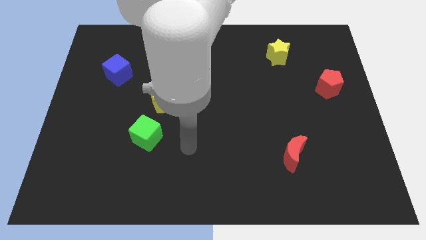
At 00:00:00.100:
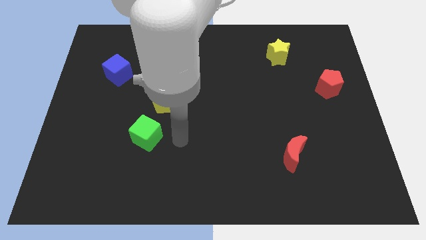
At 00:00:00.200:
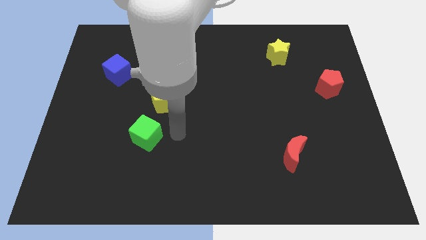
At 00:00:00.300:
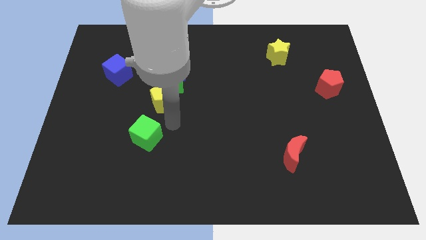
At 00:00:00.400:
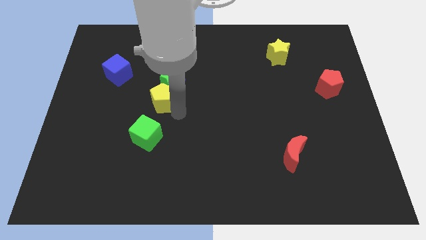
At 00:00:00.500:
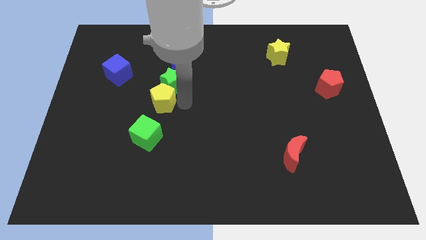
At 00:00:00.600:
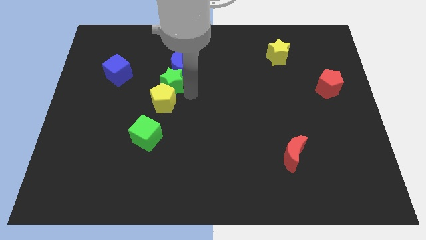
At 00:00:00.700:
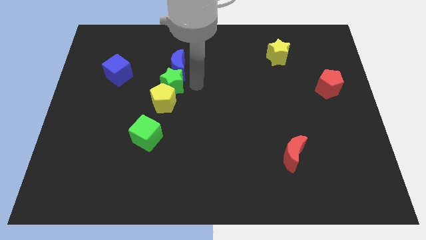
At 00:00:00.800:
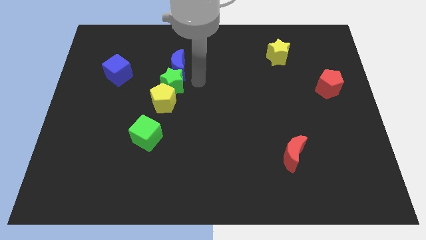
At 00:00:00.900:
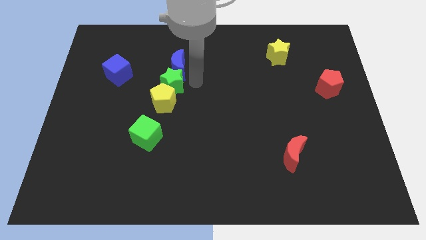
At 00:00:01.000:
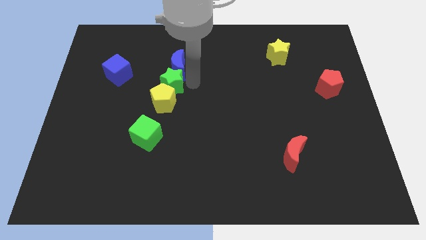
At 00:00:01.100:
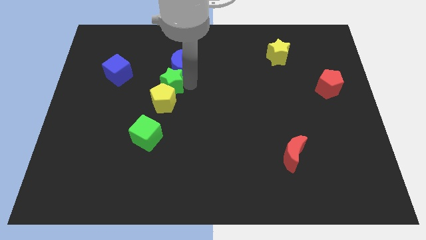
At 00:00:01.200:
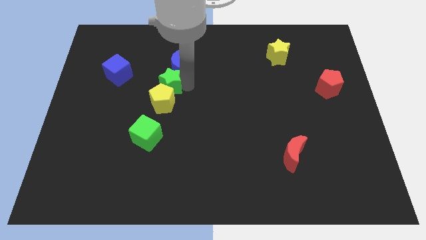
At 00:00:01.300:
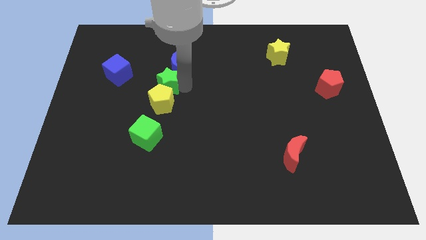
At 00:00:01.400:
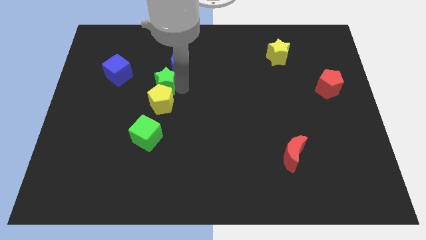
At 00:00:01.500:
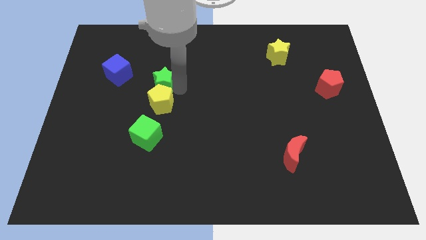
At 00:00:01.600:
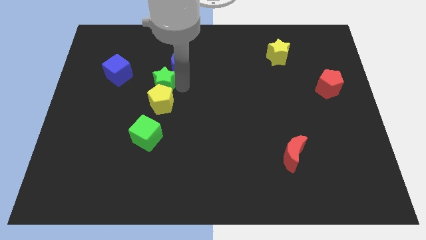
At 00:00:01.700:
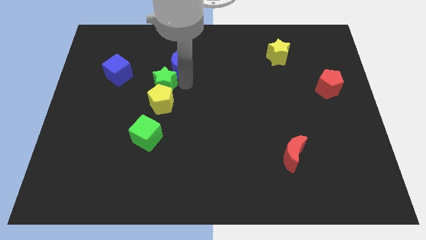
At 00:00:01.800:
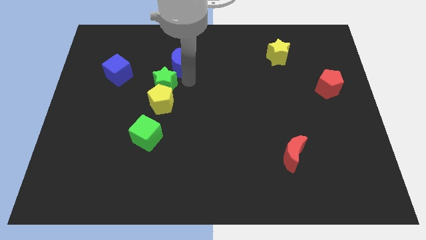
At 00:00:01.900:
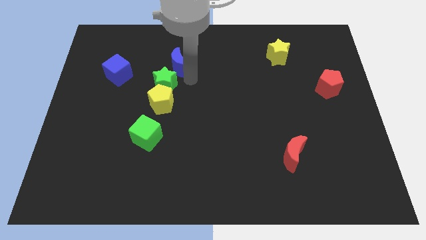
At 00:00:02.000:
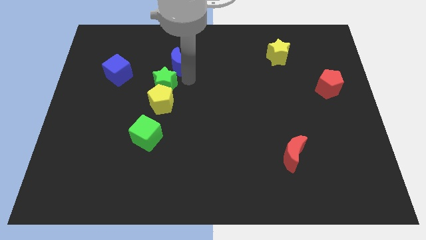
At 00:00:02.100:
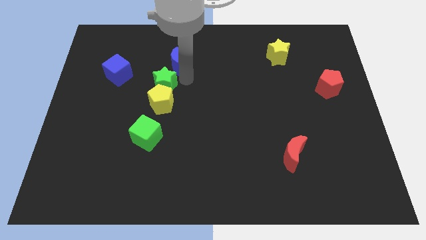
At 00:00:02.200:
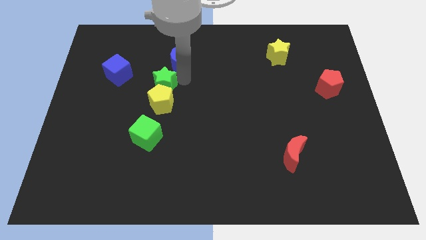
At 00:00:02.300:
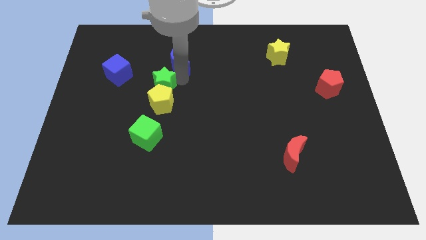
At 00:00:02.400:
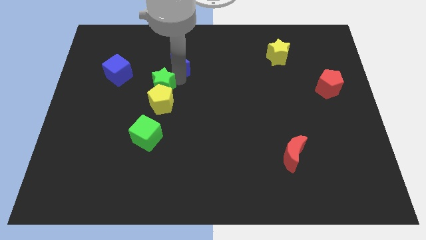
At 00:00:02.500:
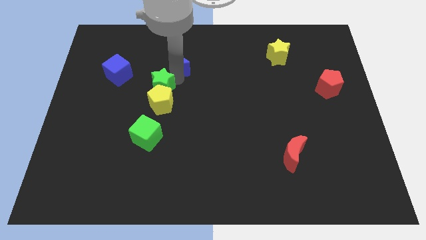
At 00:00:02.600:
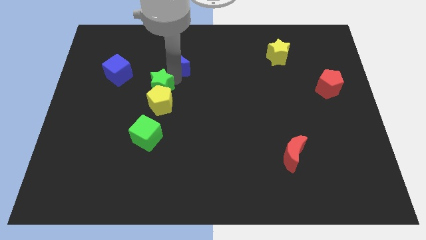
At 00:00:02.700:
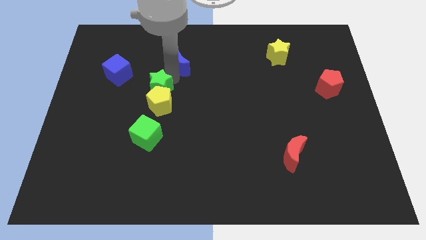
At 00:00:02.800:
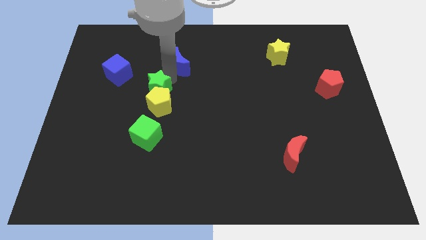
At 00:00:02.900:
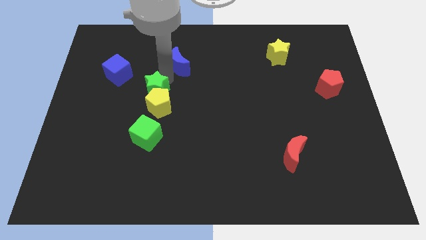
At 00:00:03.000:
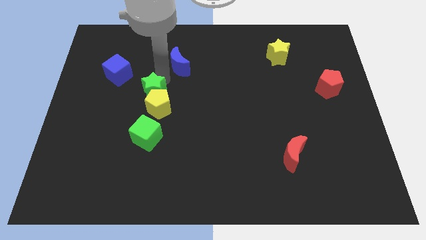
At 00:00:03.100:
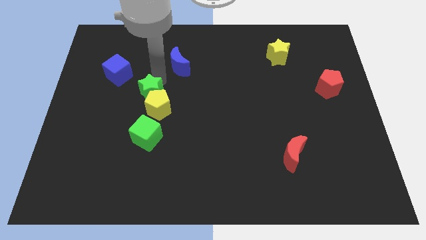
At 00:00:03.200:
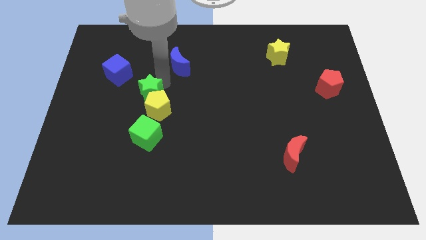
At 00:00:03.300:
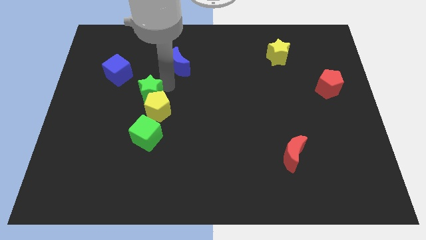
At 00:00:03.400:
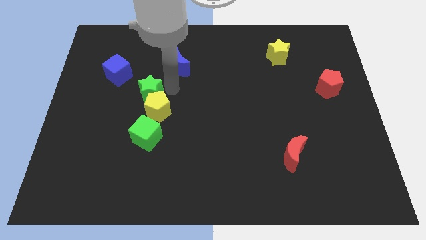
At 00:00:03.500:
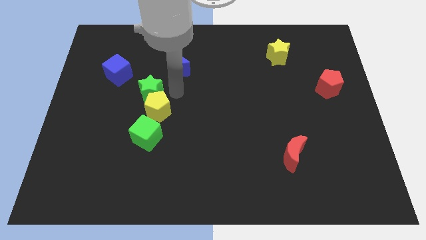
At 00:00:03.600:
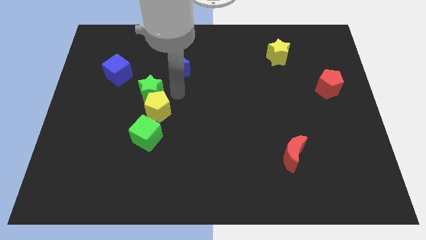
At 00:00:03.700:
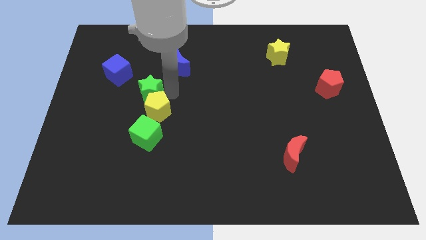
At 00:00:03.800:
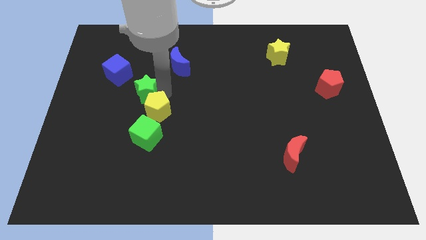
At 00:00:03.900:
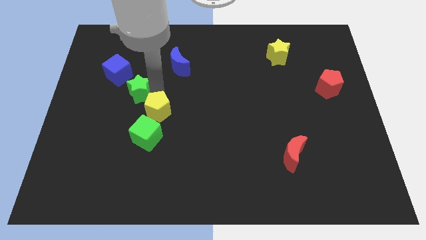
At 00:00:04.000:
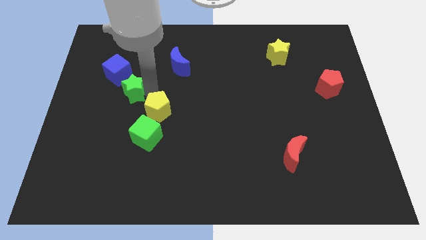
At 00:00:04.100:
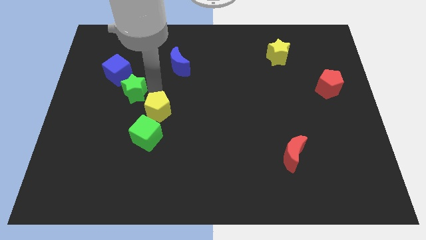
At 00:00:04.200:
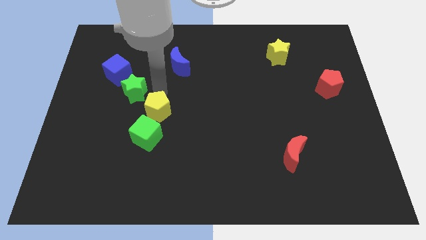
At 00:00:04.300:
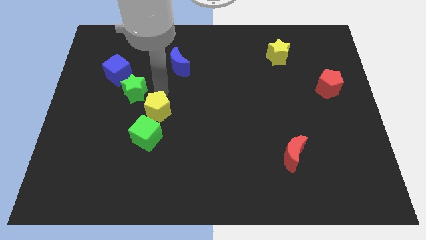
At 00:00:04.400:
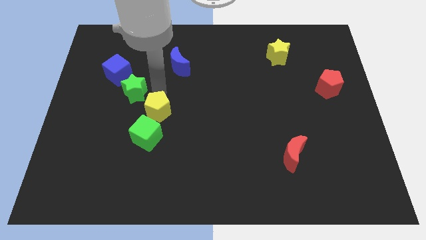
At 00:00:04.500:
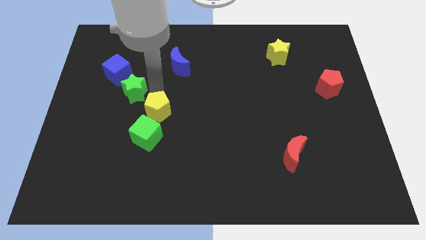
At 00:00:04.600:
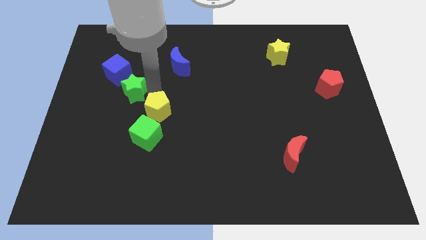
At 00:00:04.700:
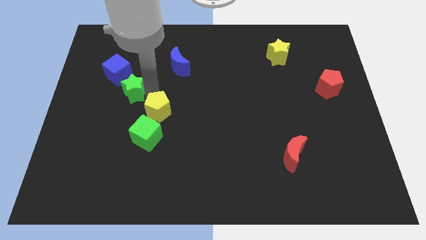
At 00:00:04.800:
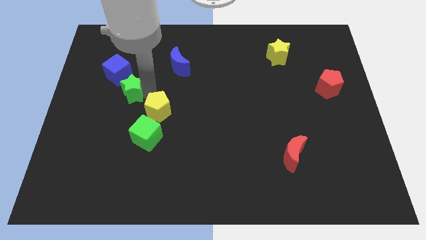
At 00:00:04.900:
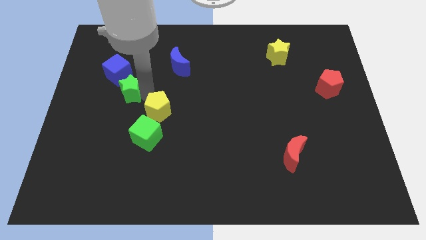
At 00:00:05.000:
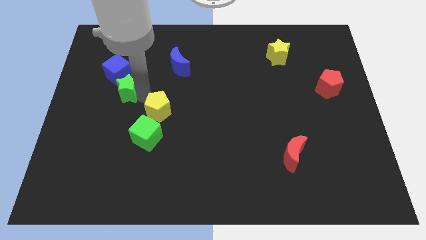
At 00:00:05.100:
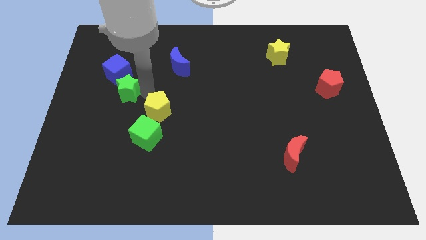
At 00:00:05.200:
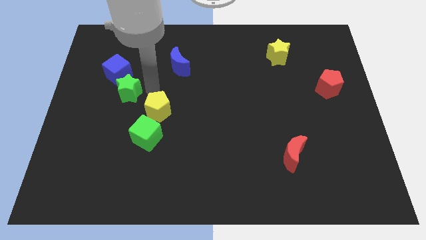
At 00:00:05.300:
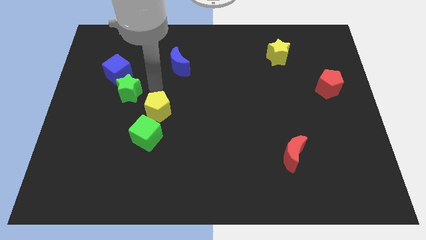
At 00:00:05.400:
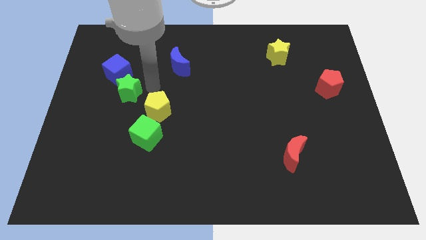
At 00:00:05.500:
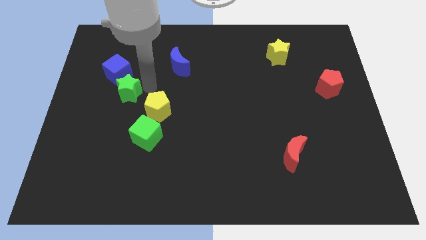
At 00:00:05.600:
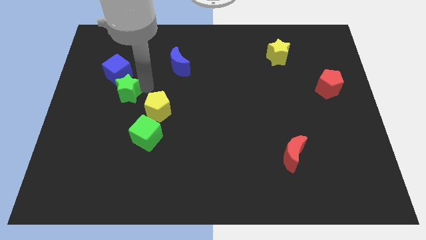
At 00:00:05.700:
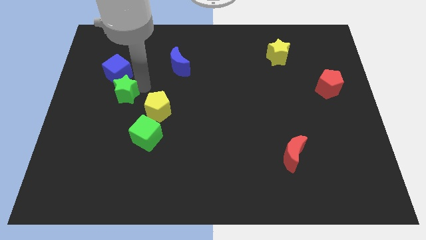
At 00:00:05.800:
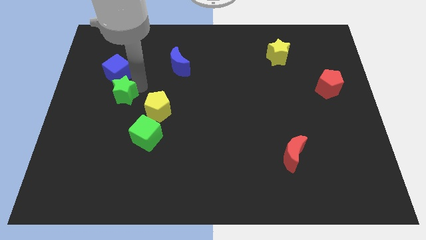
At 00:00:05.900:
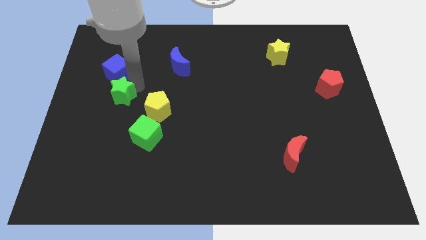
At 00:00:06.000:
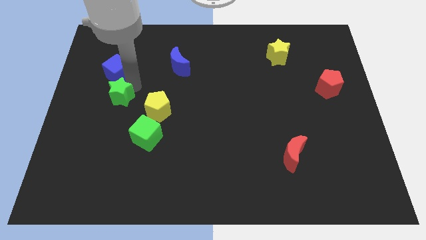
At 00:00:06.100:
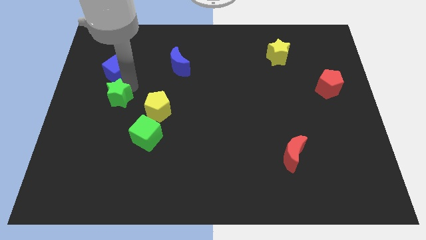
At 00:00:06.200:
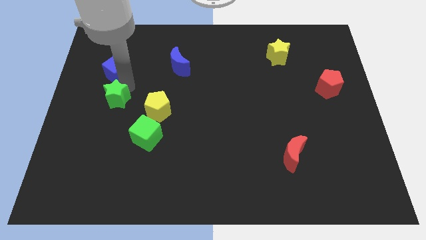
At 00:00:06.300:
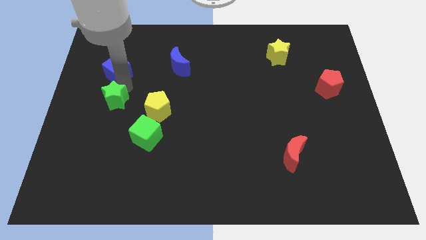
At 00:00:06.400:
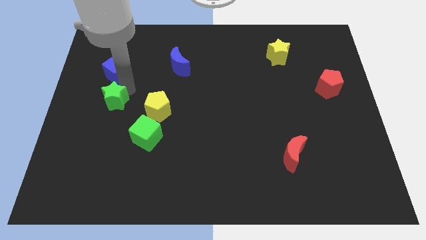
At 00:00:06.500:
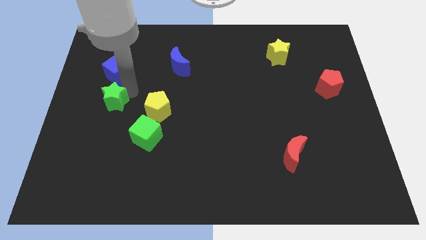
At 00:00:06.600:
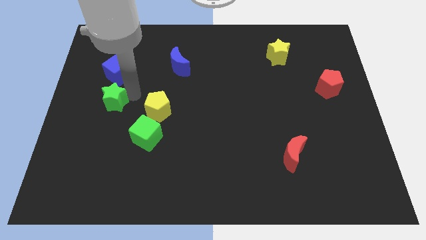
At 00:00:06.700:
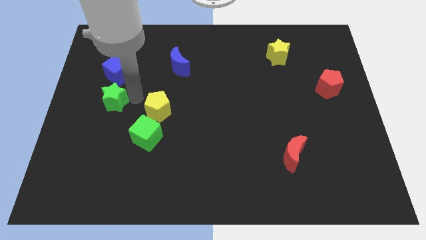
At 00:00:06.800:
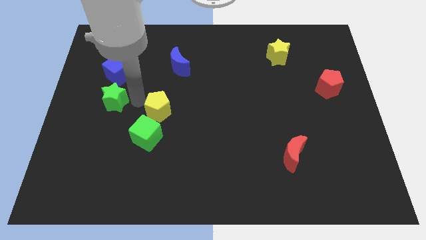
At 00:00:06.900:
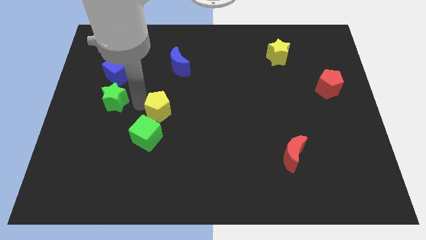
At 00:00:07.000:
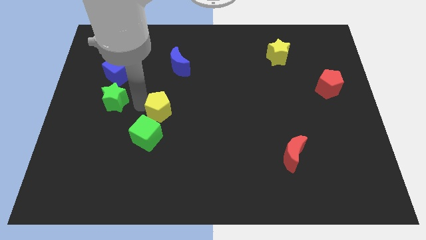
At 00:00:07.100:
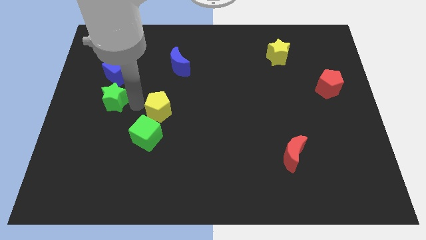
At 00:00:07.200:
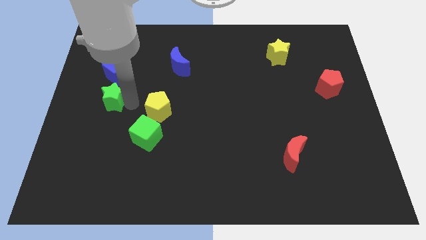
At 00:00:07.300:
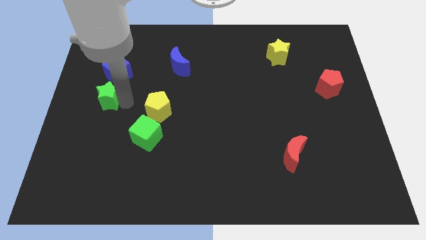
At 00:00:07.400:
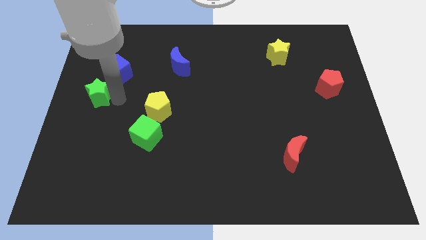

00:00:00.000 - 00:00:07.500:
push the green star to the left side of the board
